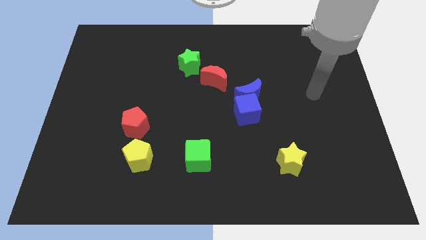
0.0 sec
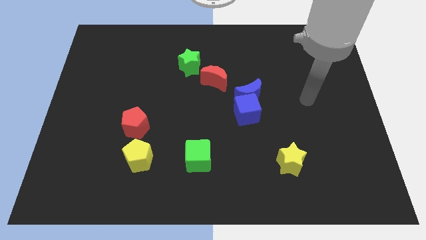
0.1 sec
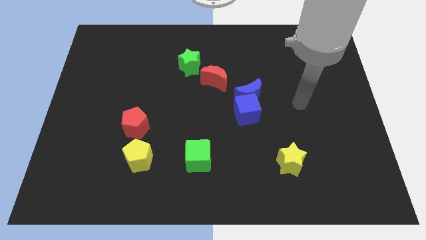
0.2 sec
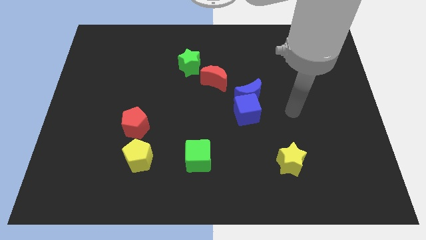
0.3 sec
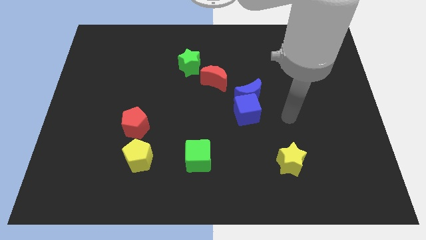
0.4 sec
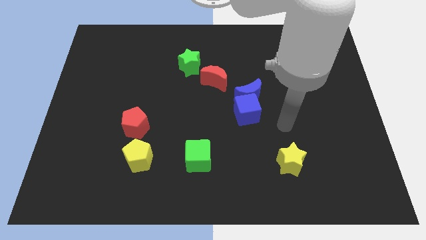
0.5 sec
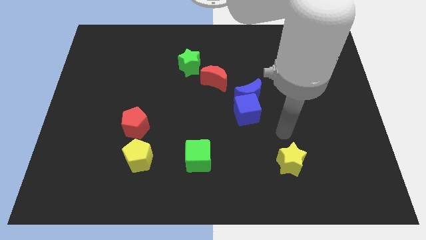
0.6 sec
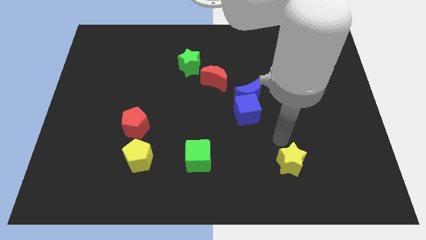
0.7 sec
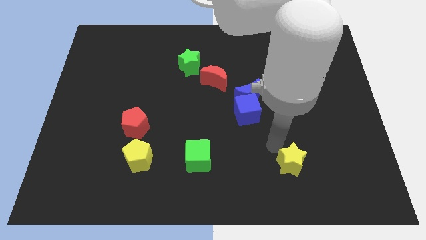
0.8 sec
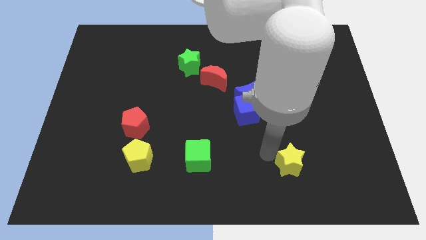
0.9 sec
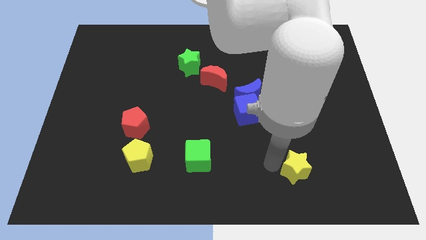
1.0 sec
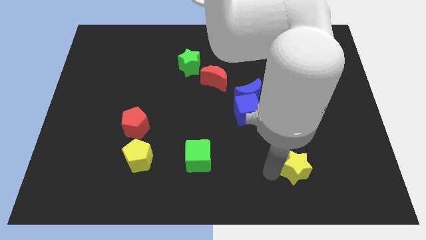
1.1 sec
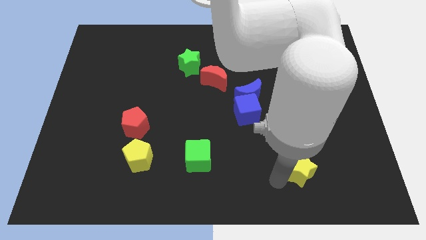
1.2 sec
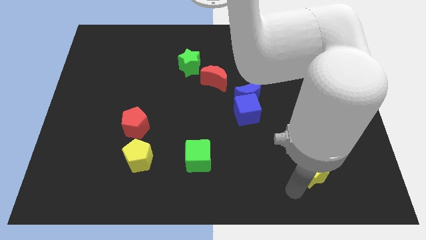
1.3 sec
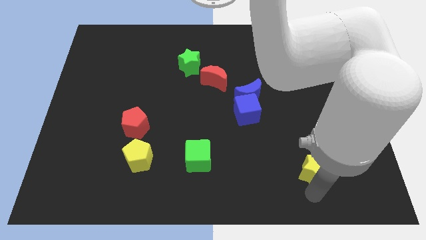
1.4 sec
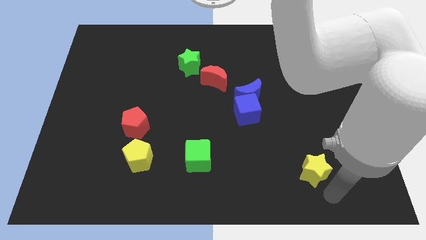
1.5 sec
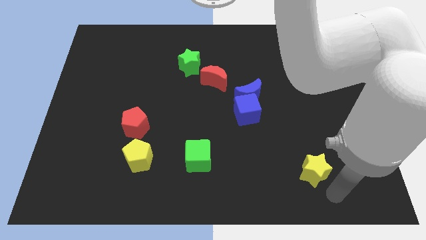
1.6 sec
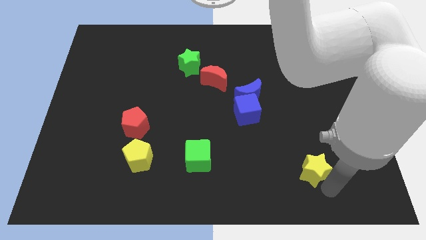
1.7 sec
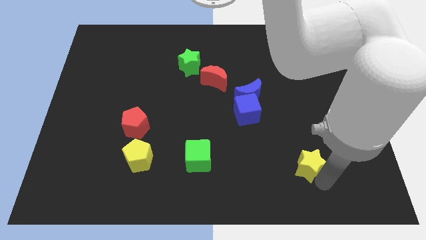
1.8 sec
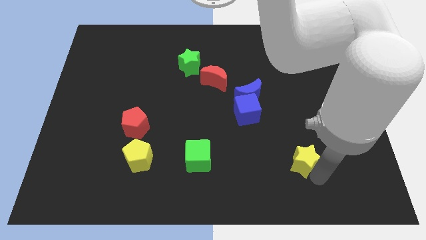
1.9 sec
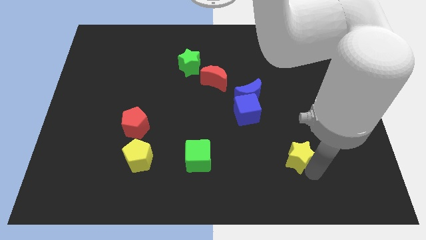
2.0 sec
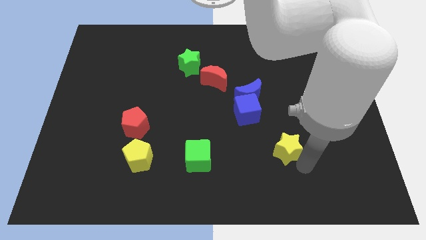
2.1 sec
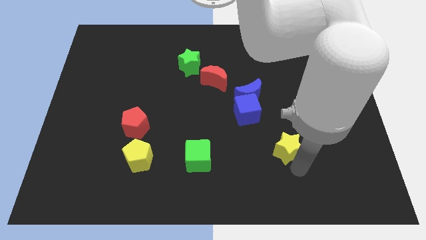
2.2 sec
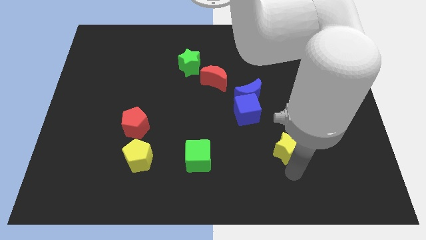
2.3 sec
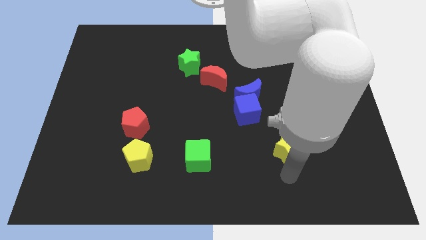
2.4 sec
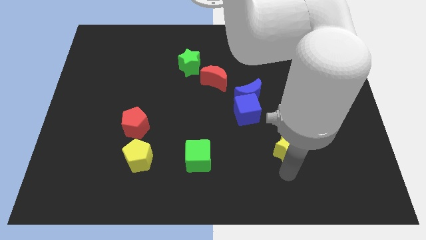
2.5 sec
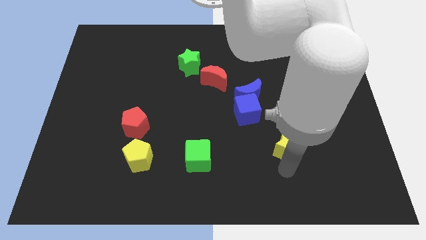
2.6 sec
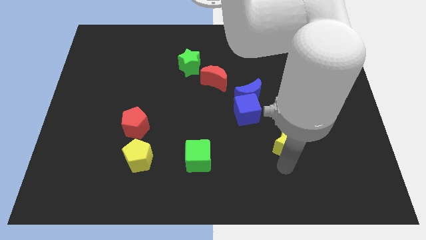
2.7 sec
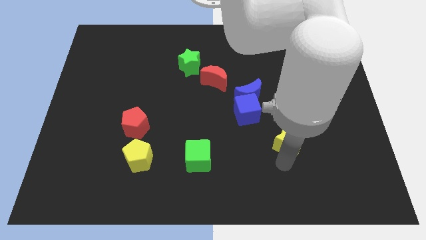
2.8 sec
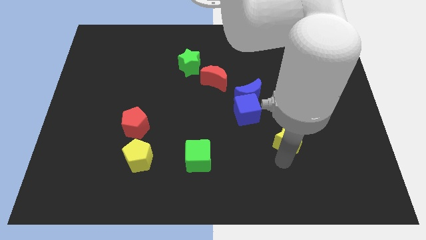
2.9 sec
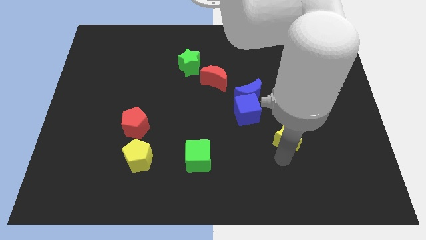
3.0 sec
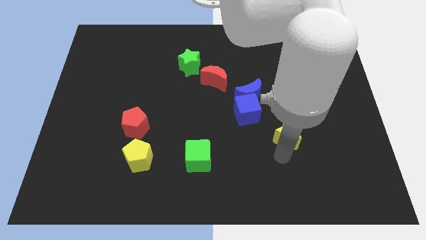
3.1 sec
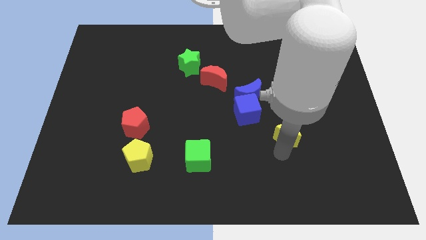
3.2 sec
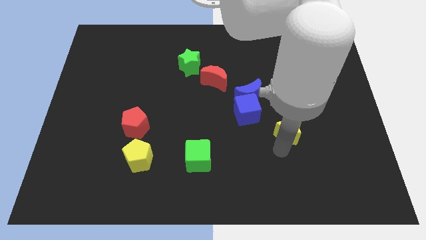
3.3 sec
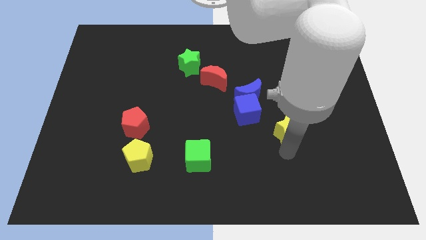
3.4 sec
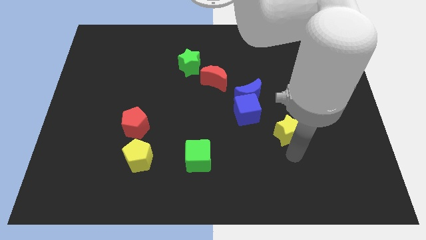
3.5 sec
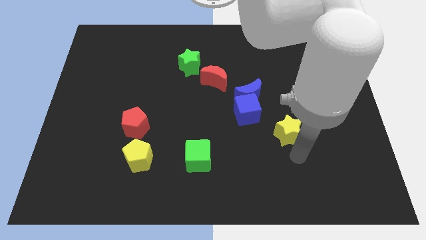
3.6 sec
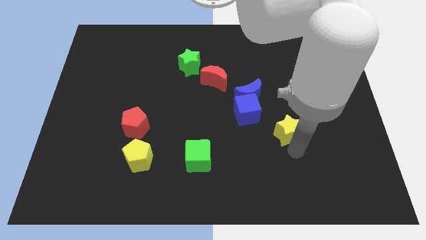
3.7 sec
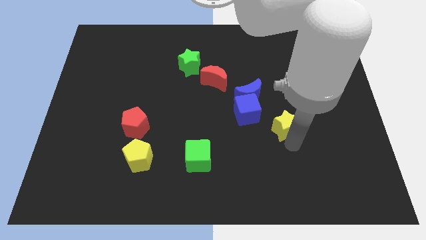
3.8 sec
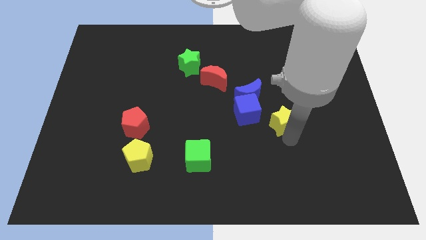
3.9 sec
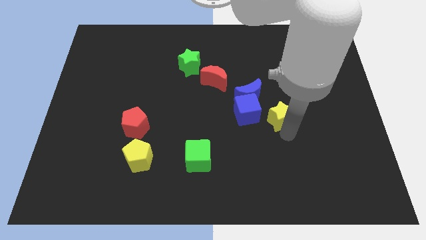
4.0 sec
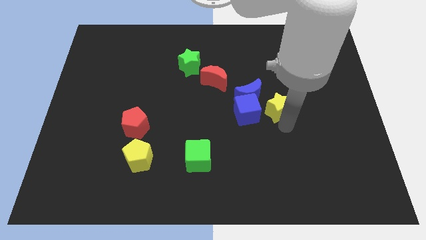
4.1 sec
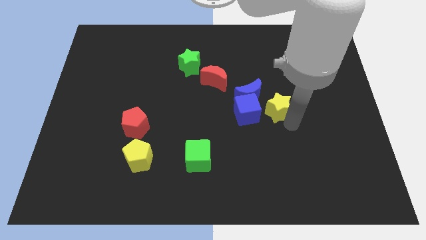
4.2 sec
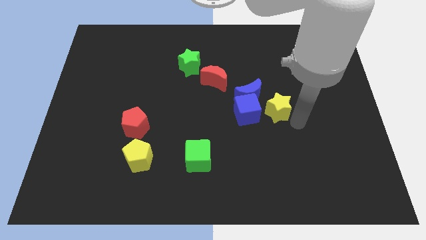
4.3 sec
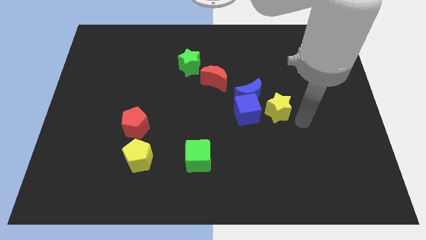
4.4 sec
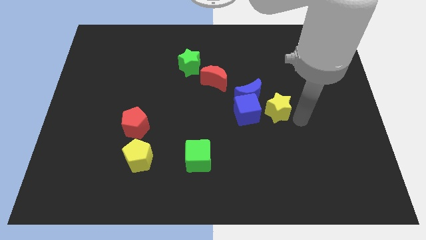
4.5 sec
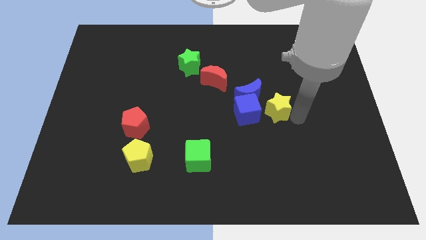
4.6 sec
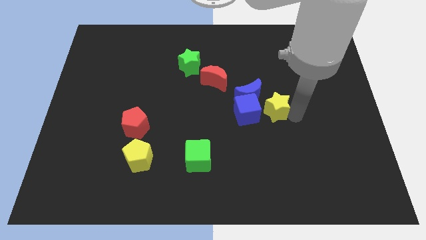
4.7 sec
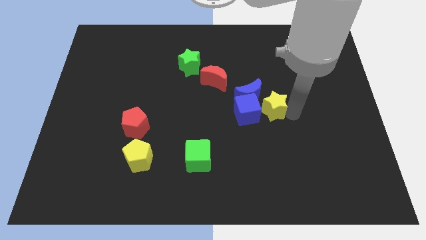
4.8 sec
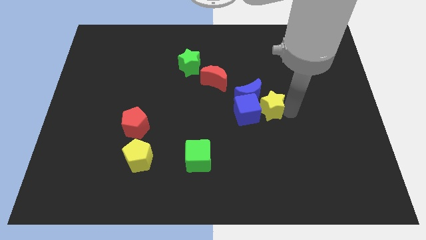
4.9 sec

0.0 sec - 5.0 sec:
push the yellow star next to the blue moon

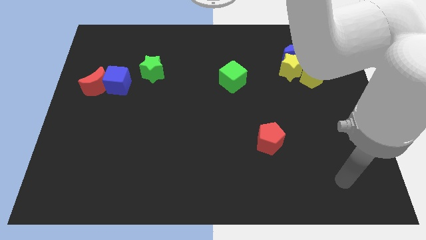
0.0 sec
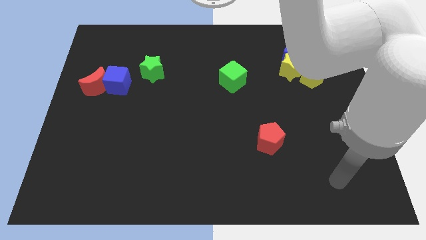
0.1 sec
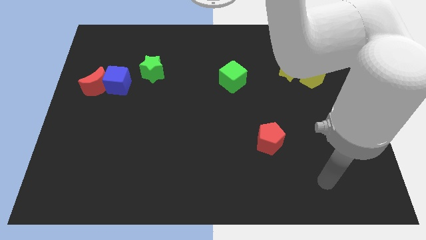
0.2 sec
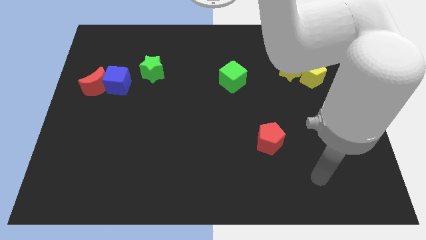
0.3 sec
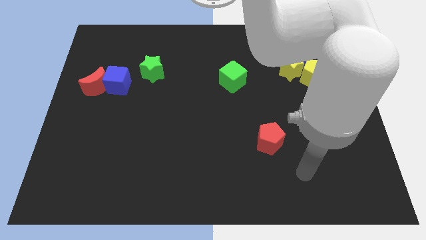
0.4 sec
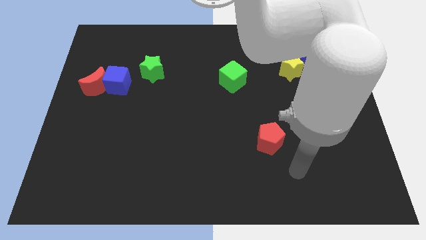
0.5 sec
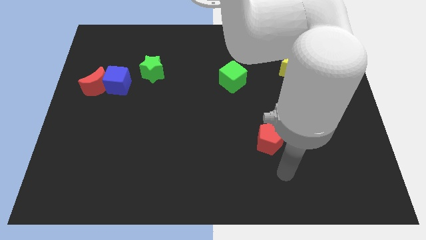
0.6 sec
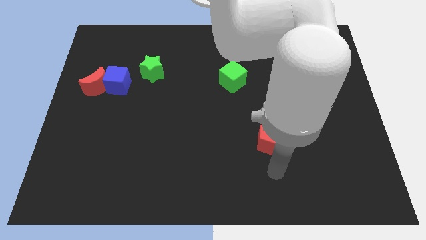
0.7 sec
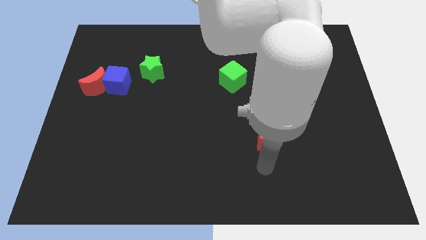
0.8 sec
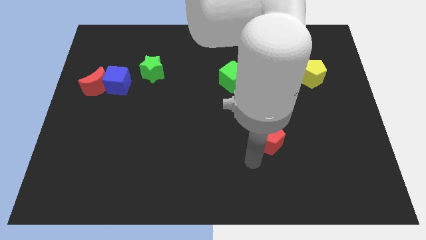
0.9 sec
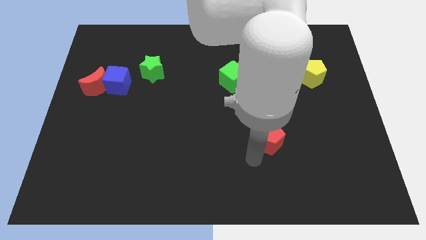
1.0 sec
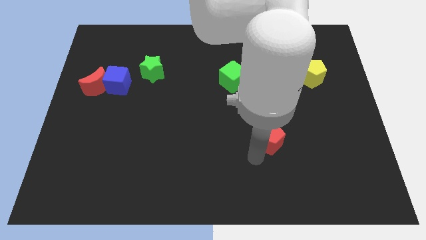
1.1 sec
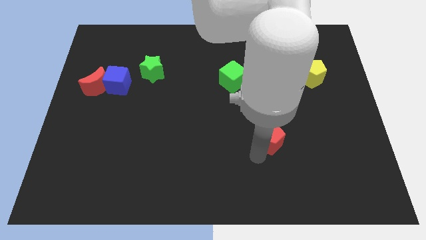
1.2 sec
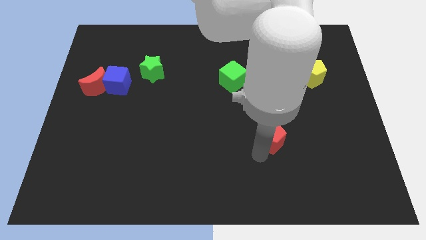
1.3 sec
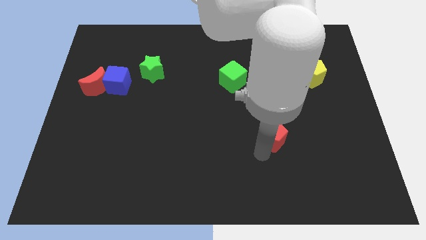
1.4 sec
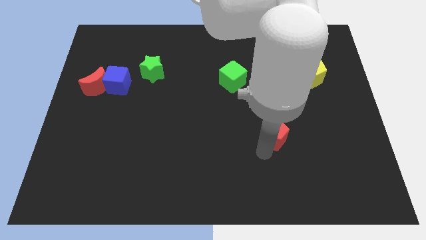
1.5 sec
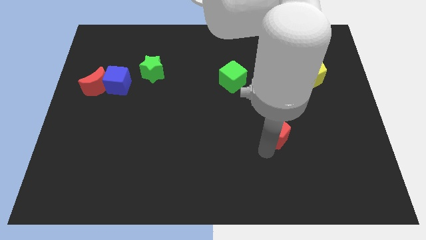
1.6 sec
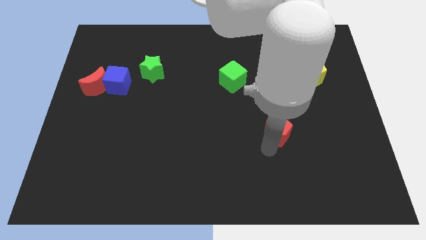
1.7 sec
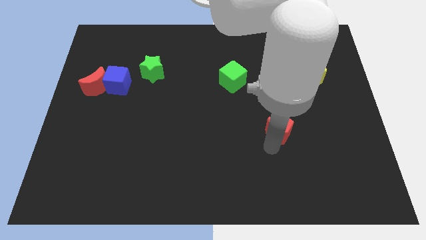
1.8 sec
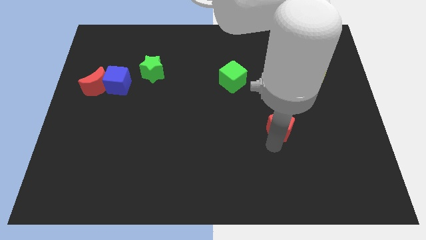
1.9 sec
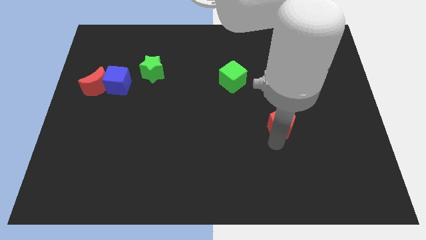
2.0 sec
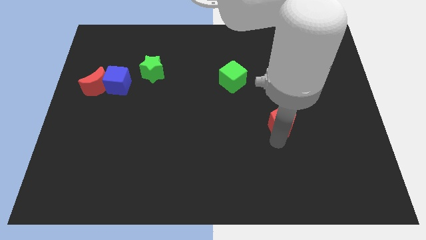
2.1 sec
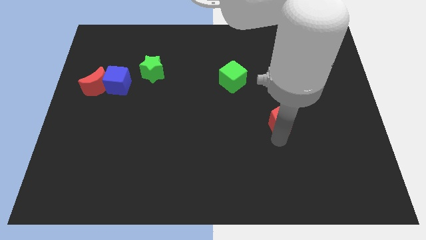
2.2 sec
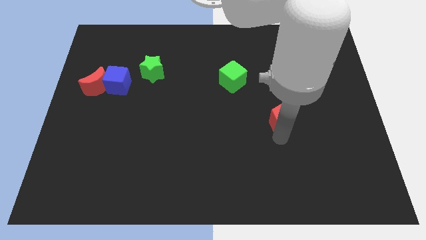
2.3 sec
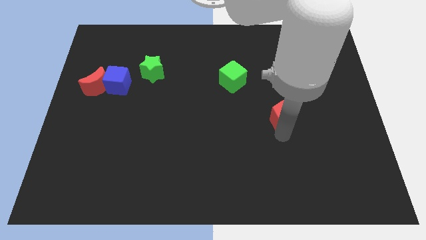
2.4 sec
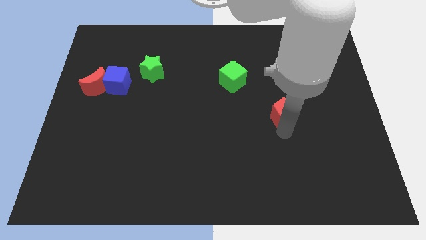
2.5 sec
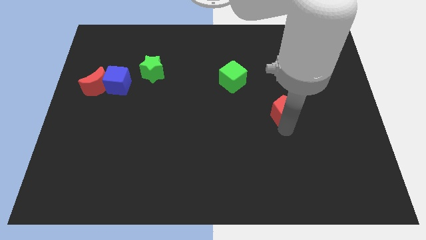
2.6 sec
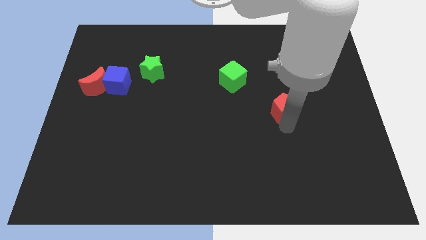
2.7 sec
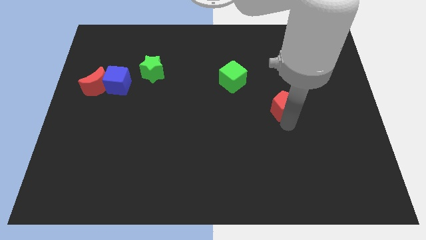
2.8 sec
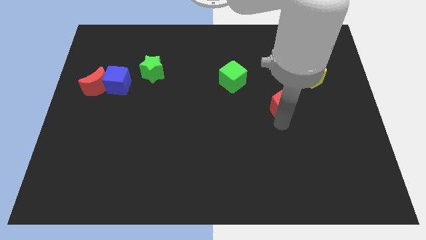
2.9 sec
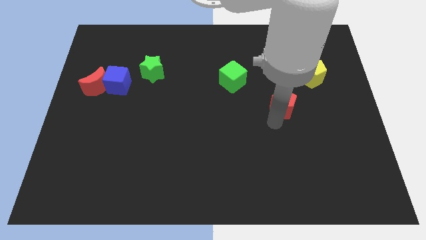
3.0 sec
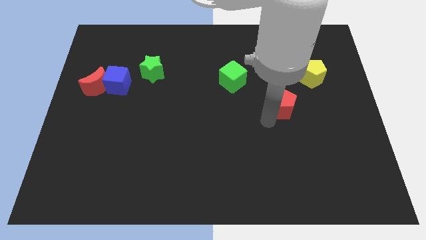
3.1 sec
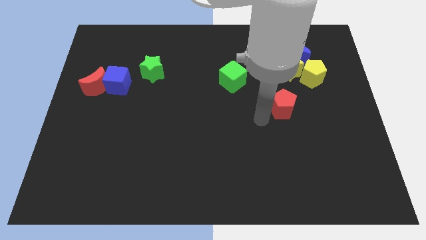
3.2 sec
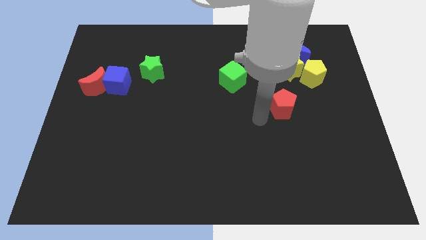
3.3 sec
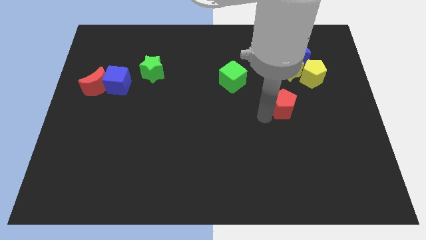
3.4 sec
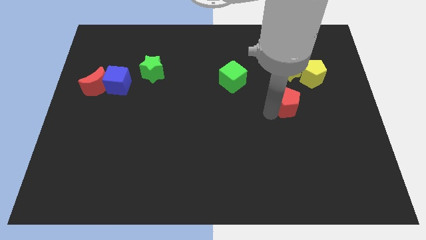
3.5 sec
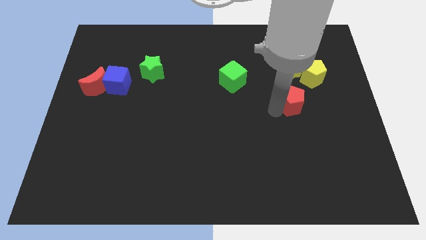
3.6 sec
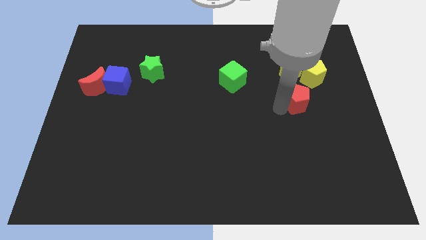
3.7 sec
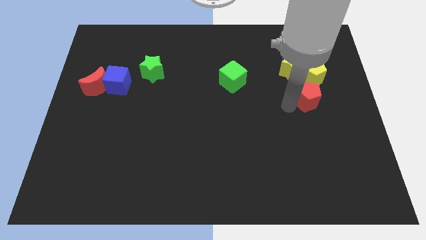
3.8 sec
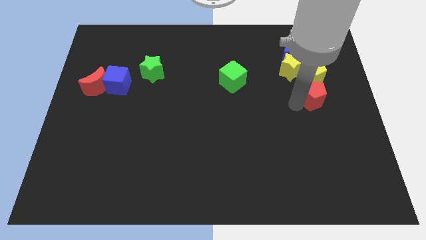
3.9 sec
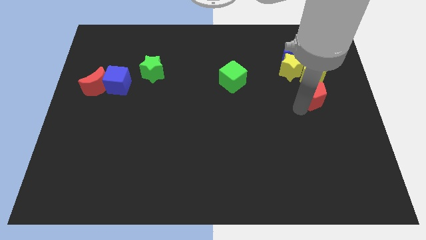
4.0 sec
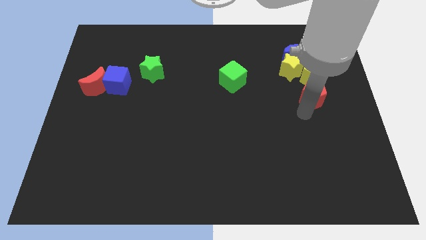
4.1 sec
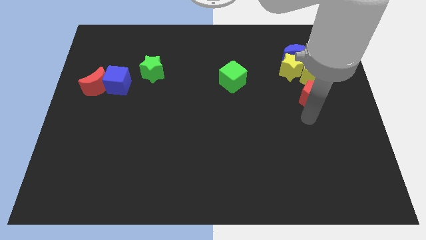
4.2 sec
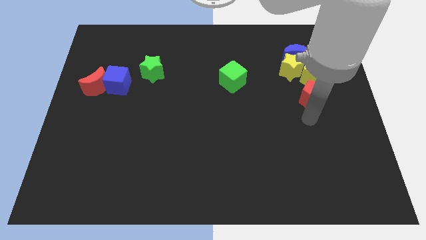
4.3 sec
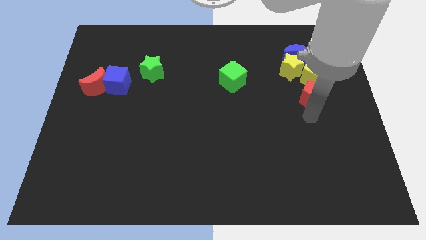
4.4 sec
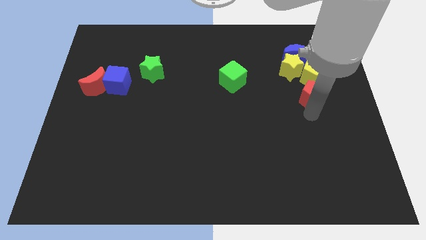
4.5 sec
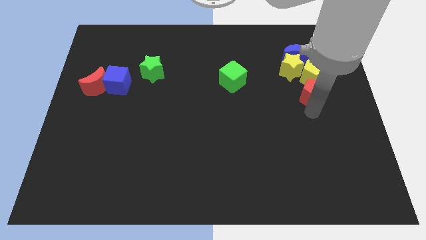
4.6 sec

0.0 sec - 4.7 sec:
put the red pentagon next to the yellow pentagon
